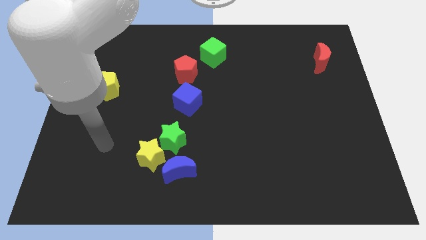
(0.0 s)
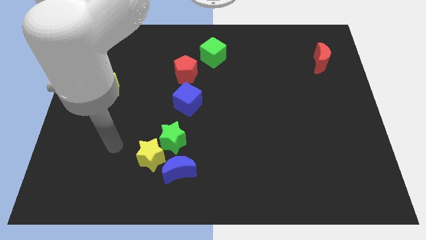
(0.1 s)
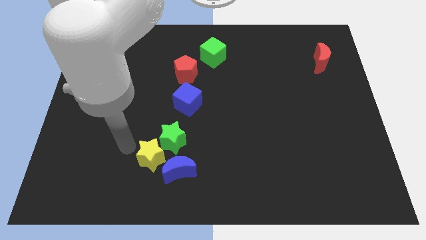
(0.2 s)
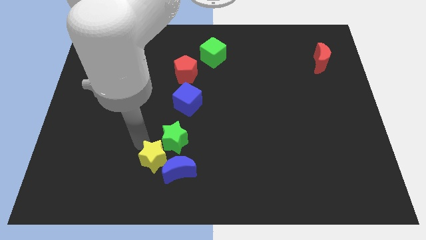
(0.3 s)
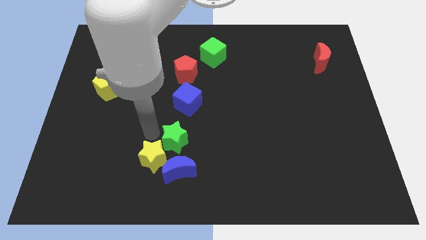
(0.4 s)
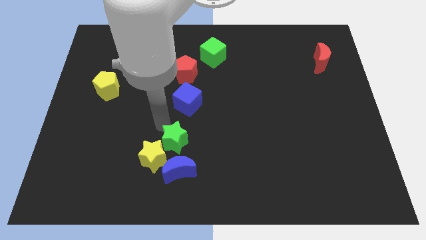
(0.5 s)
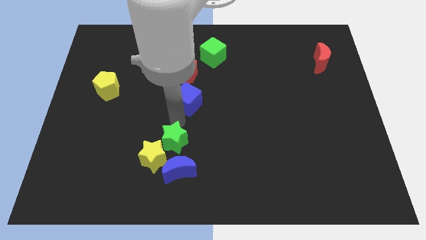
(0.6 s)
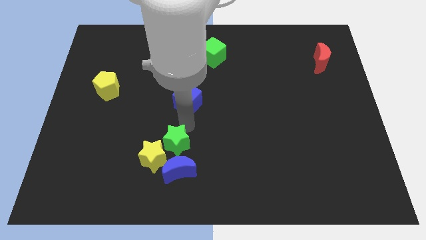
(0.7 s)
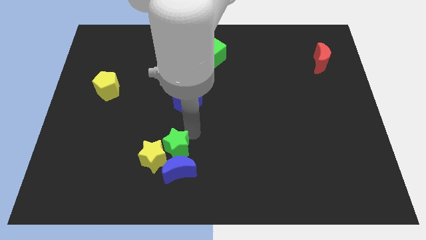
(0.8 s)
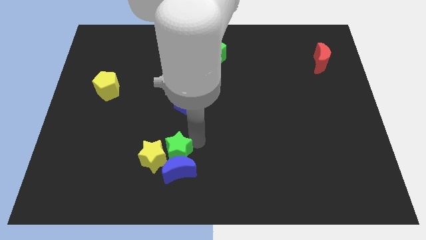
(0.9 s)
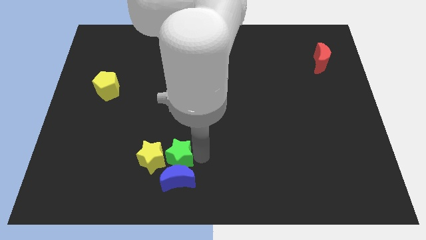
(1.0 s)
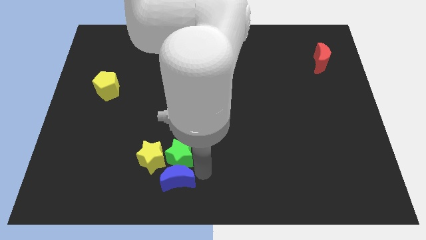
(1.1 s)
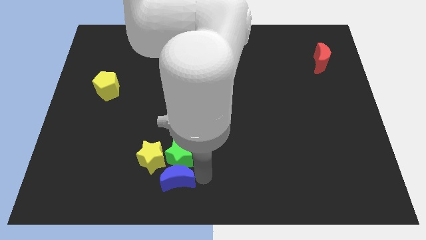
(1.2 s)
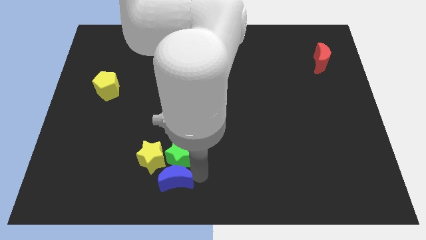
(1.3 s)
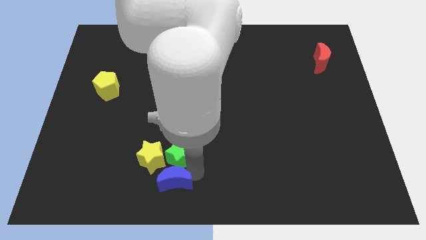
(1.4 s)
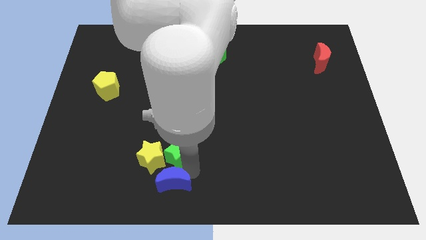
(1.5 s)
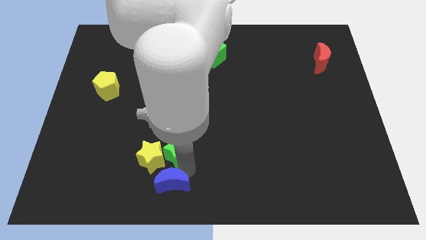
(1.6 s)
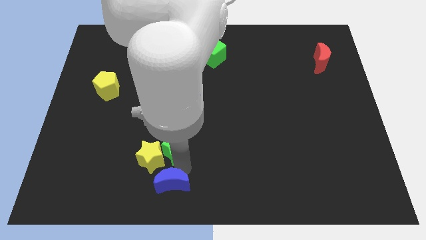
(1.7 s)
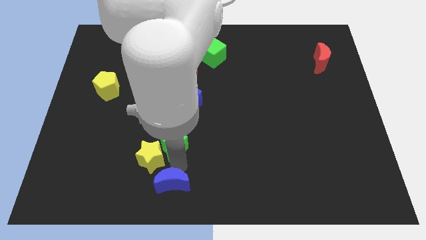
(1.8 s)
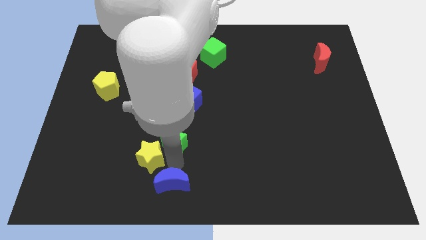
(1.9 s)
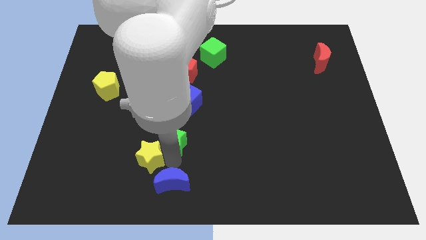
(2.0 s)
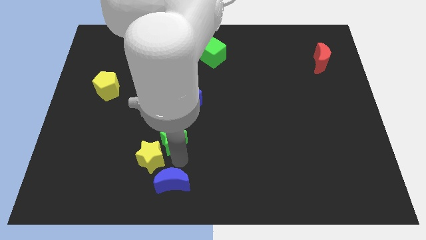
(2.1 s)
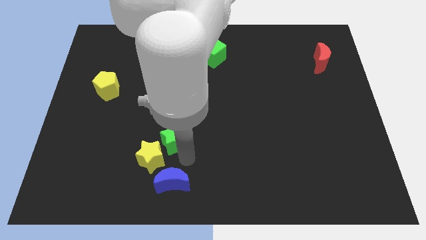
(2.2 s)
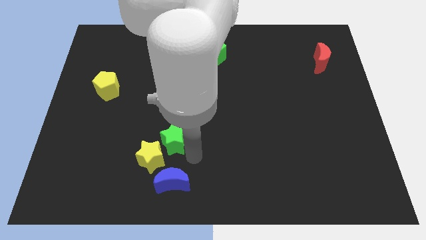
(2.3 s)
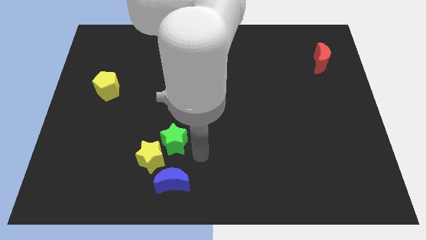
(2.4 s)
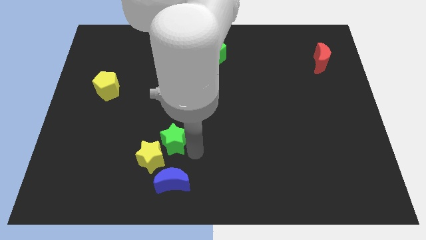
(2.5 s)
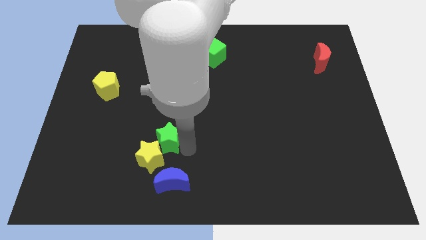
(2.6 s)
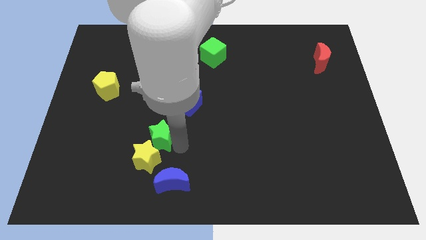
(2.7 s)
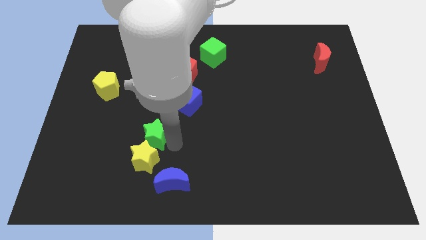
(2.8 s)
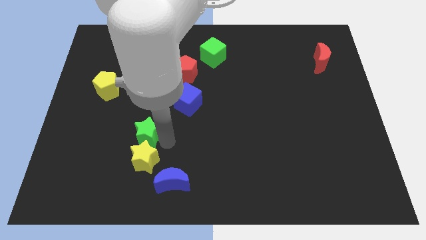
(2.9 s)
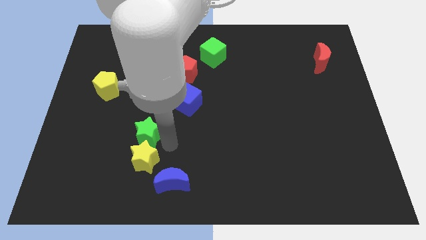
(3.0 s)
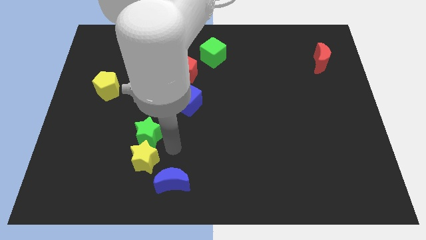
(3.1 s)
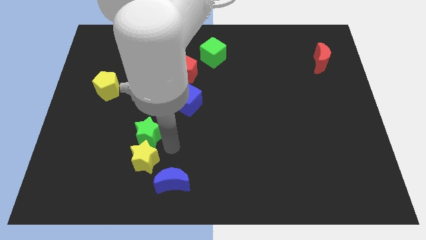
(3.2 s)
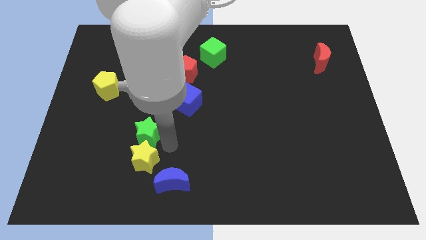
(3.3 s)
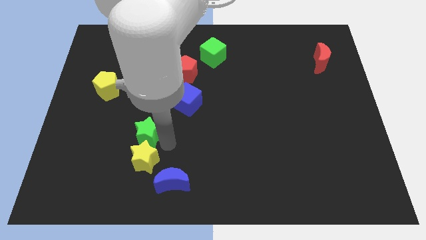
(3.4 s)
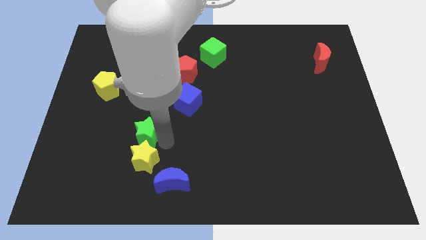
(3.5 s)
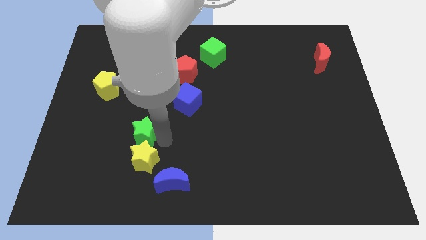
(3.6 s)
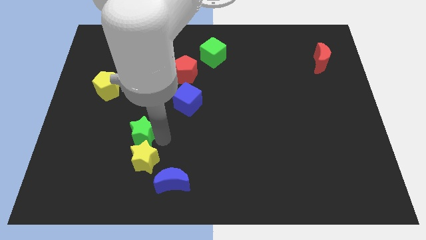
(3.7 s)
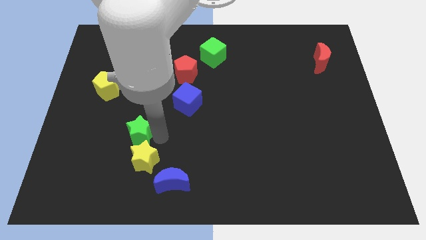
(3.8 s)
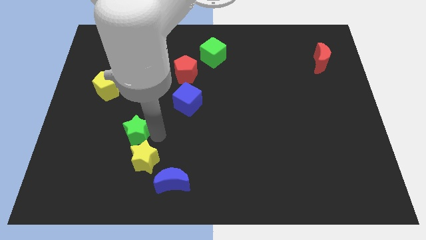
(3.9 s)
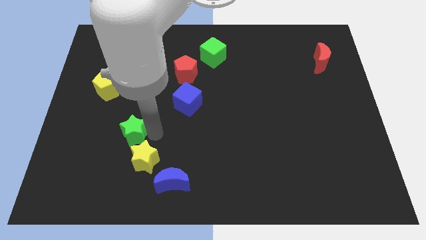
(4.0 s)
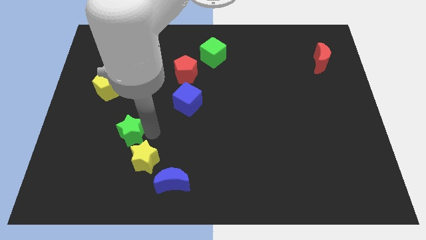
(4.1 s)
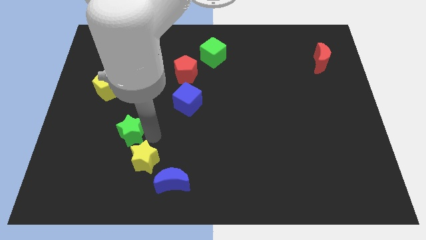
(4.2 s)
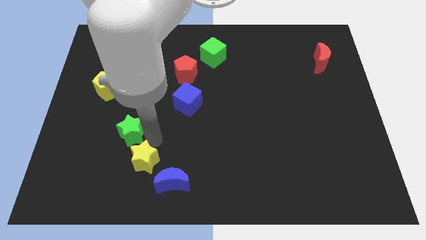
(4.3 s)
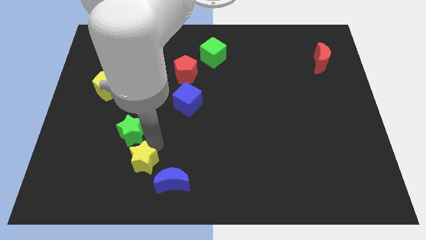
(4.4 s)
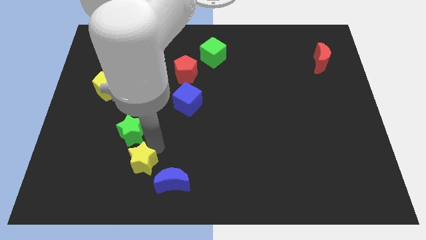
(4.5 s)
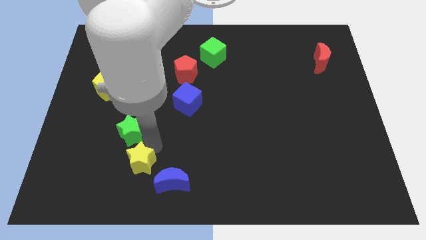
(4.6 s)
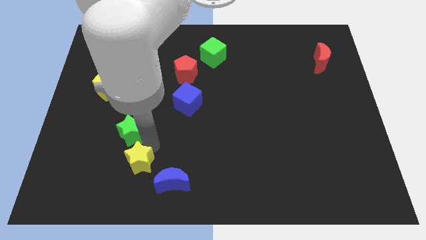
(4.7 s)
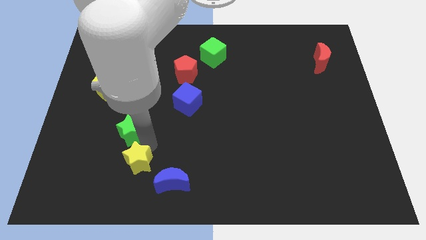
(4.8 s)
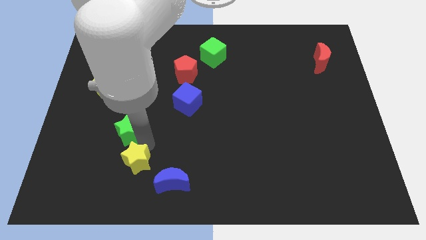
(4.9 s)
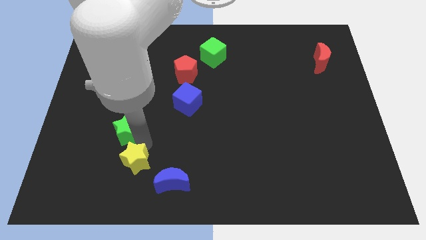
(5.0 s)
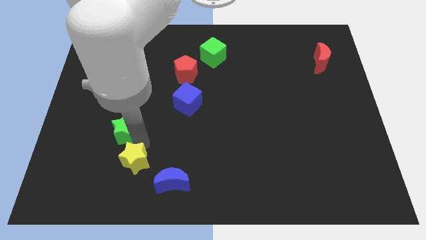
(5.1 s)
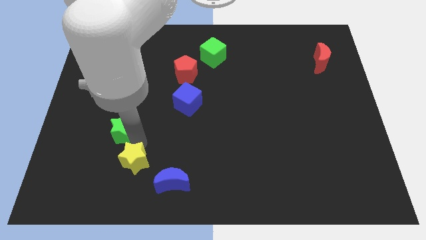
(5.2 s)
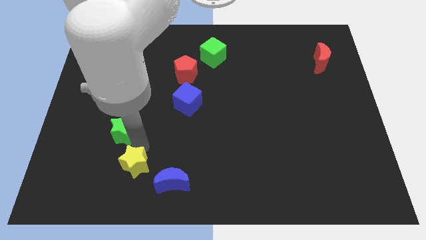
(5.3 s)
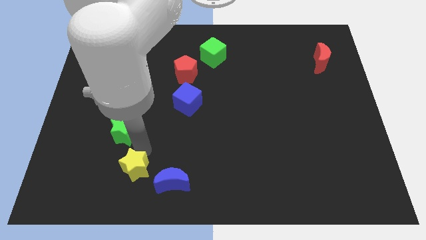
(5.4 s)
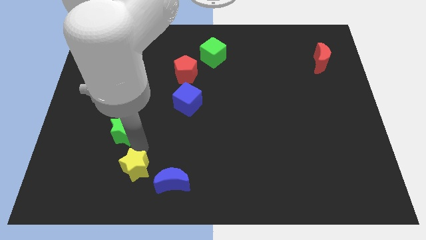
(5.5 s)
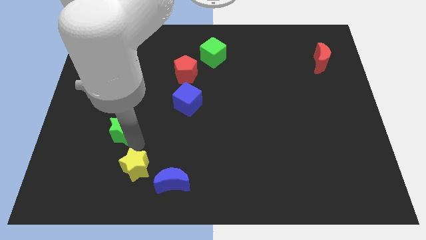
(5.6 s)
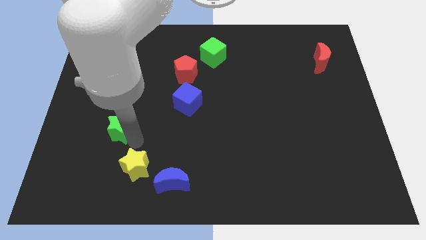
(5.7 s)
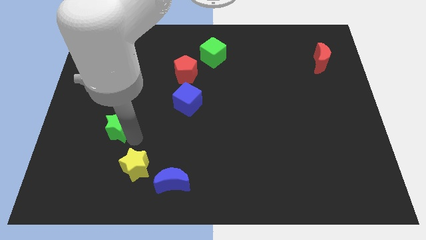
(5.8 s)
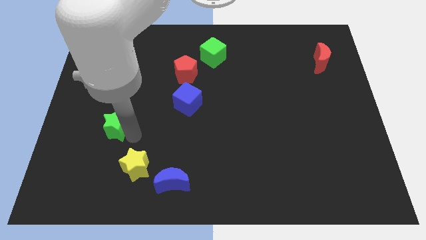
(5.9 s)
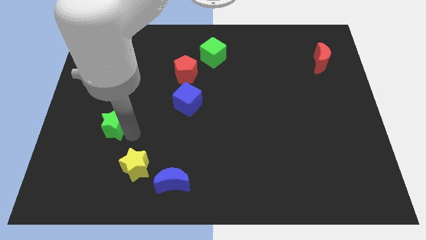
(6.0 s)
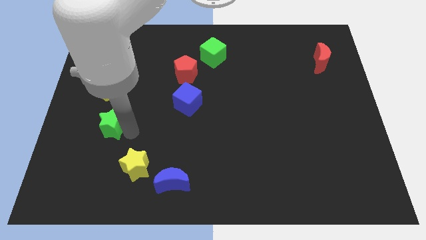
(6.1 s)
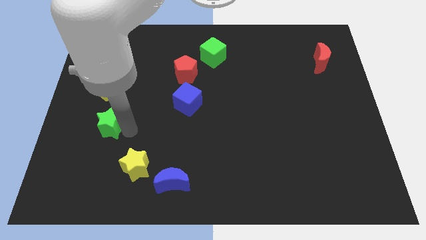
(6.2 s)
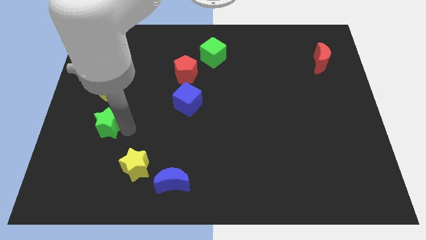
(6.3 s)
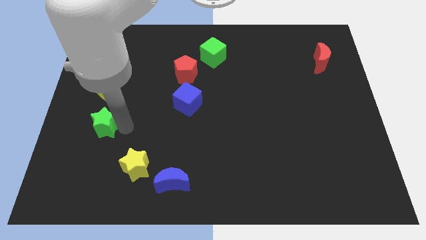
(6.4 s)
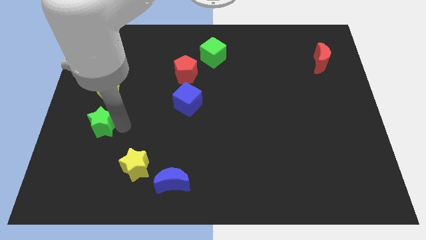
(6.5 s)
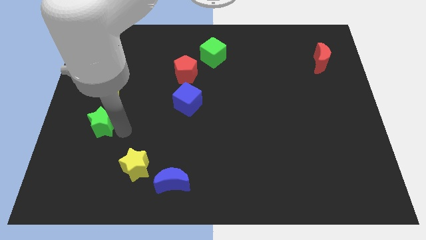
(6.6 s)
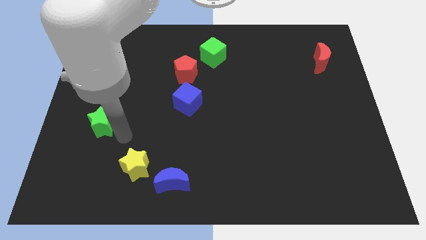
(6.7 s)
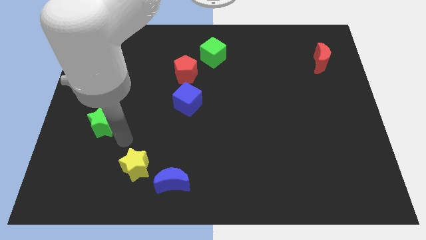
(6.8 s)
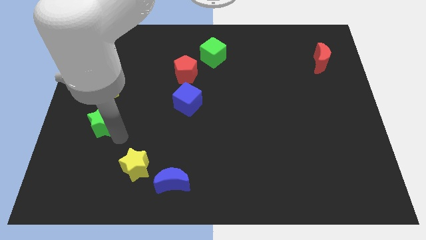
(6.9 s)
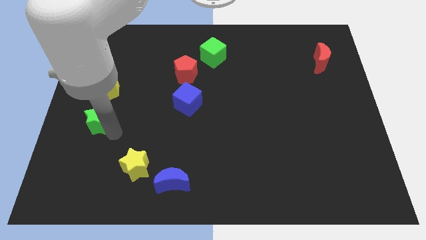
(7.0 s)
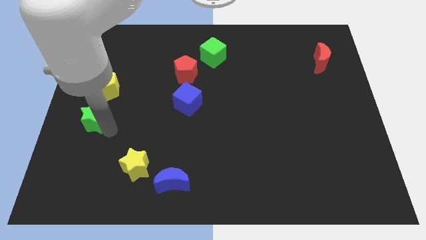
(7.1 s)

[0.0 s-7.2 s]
put the green star to the center left
